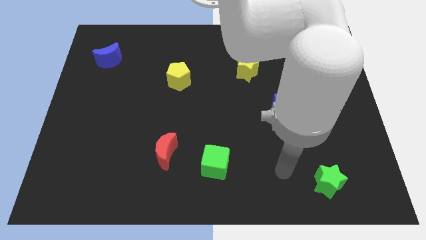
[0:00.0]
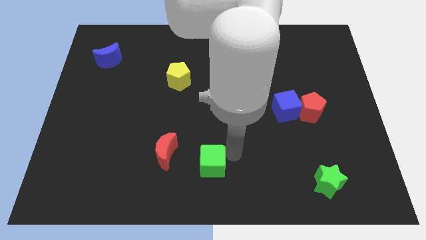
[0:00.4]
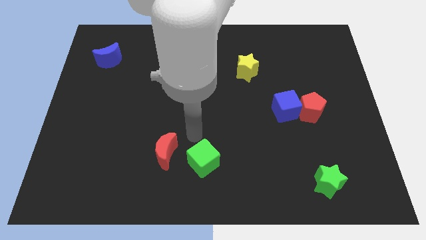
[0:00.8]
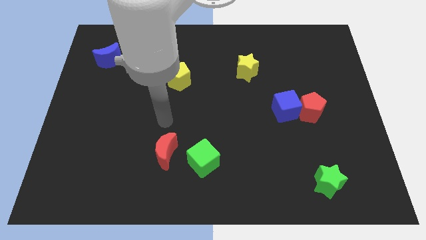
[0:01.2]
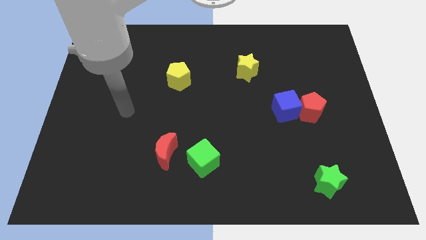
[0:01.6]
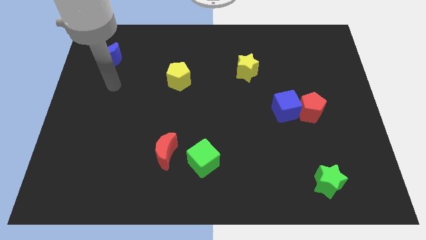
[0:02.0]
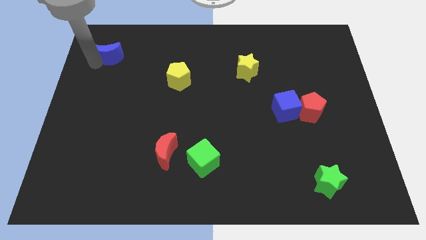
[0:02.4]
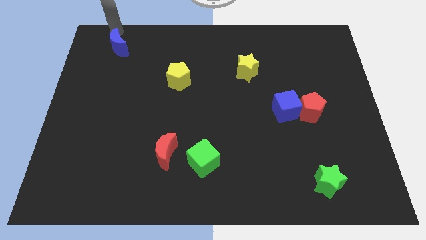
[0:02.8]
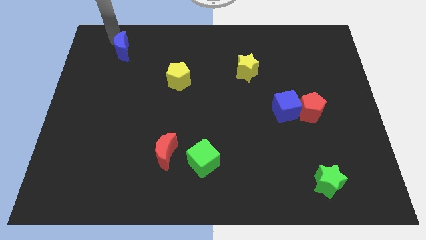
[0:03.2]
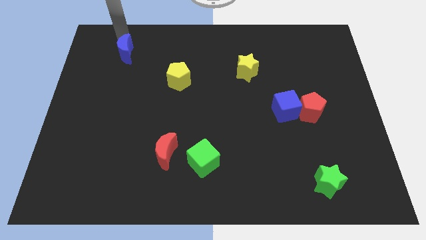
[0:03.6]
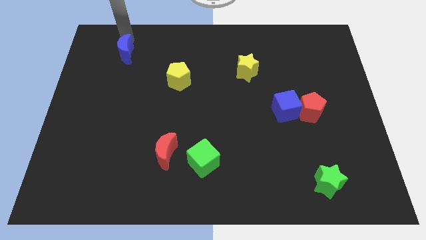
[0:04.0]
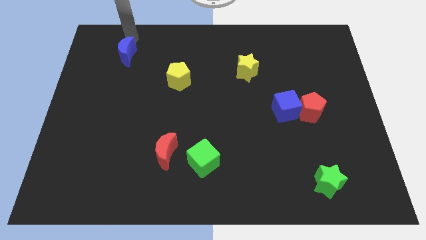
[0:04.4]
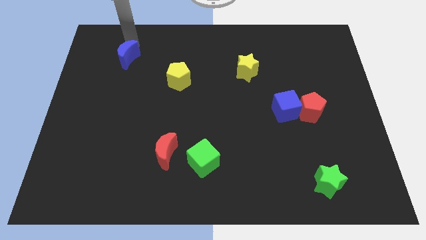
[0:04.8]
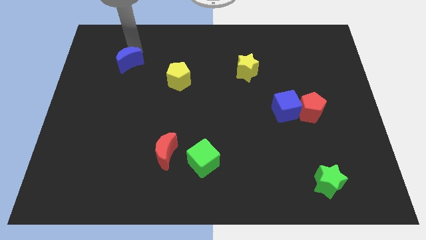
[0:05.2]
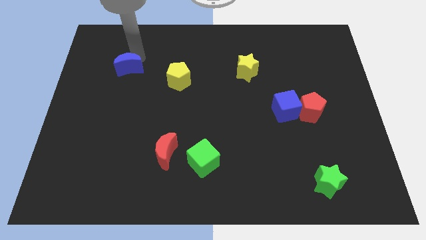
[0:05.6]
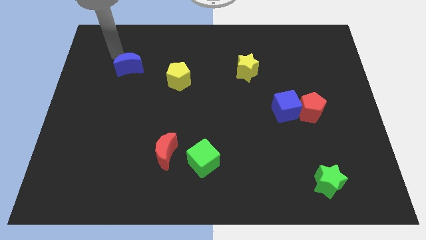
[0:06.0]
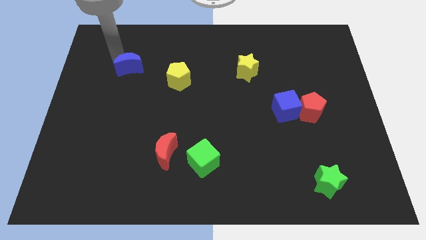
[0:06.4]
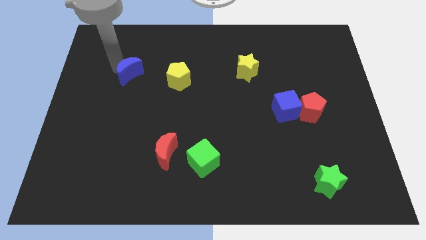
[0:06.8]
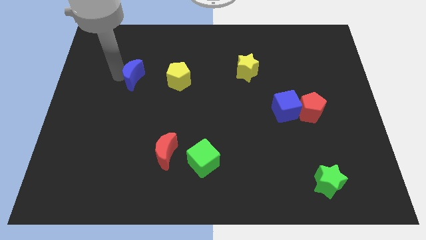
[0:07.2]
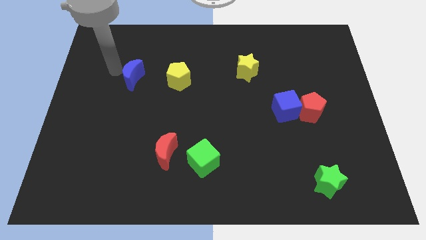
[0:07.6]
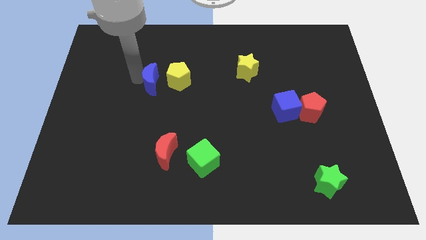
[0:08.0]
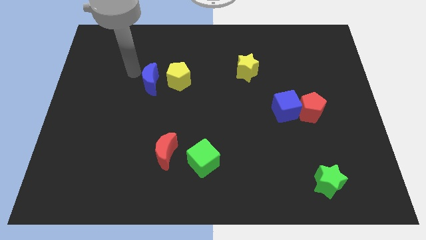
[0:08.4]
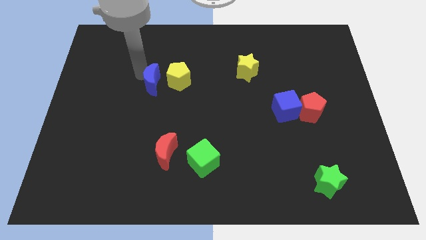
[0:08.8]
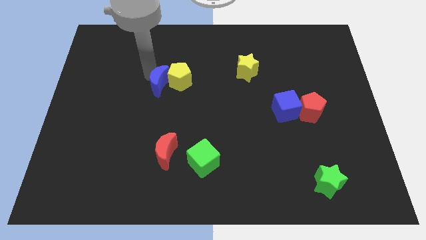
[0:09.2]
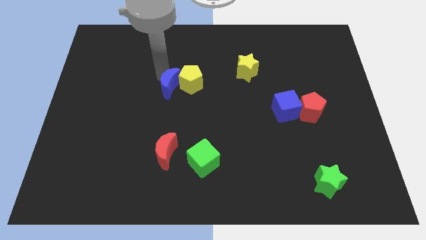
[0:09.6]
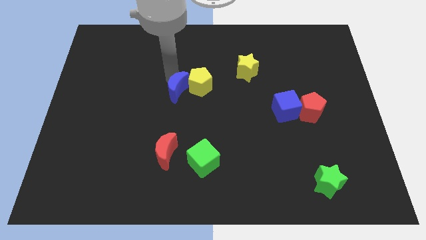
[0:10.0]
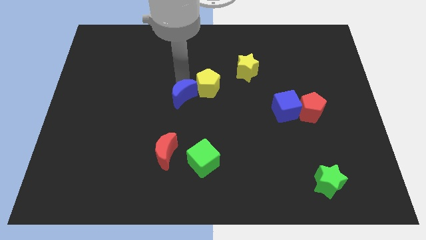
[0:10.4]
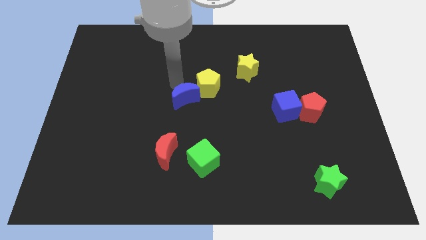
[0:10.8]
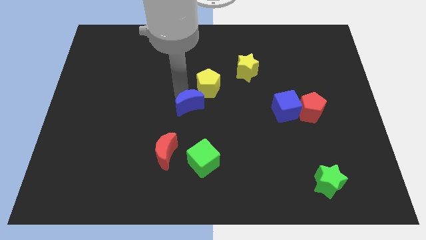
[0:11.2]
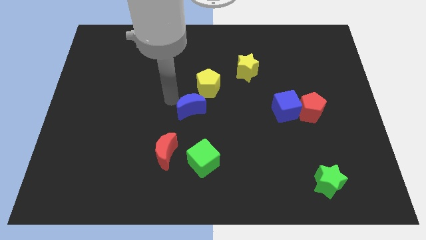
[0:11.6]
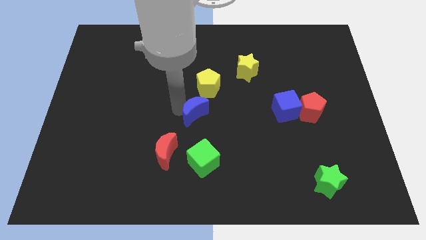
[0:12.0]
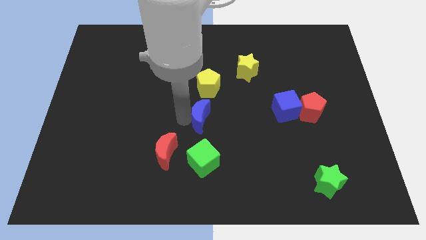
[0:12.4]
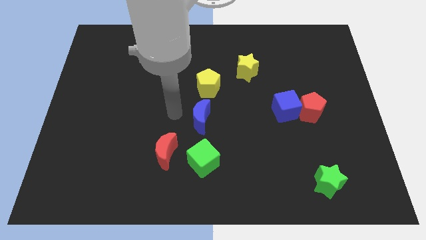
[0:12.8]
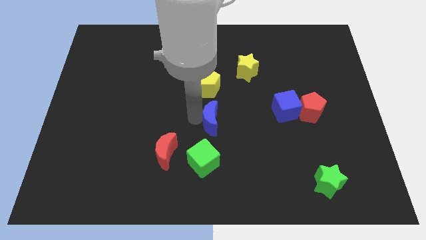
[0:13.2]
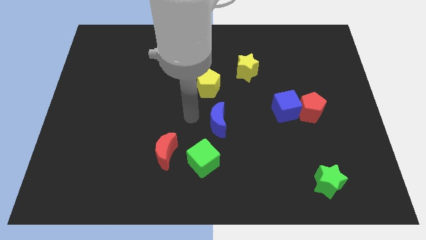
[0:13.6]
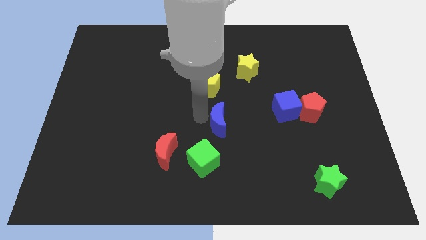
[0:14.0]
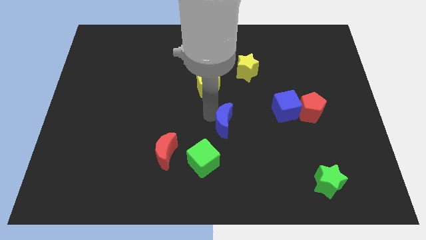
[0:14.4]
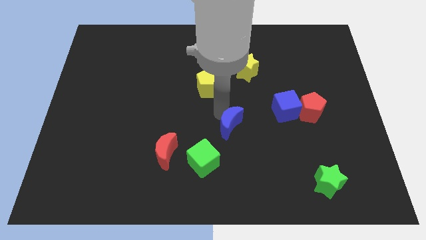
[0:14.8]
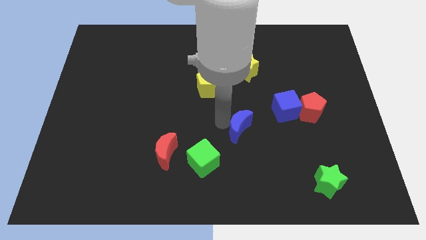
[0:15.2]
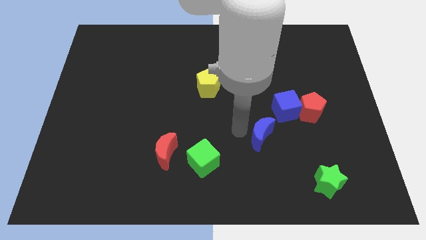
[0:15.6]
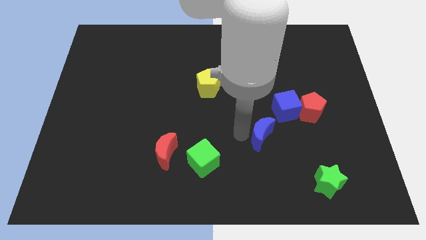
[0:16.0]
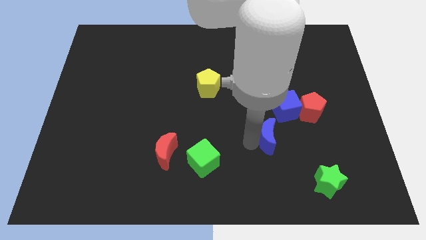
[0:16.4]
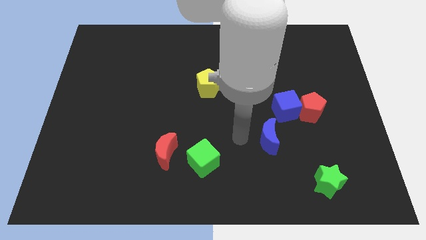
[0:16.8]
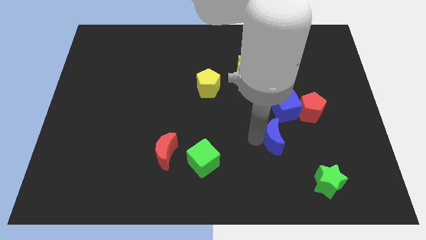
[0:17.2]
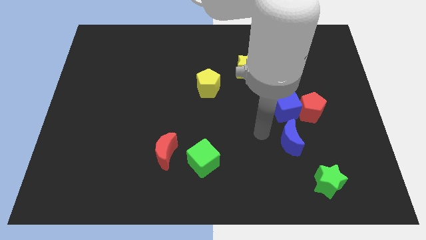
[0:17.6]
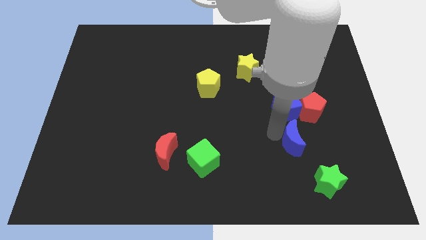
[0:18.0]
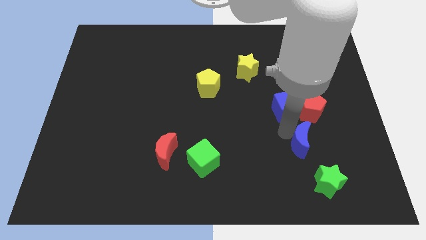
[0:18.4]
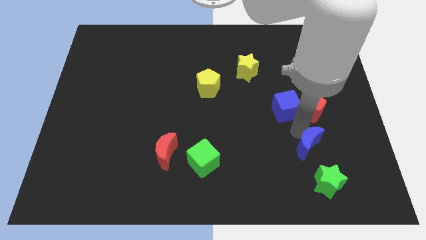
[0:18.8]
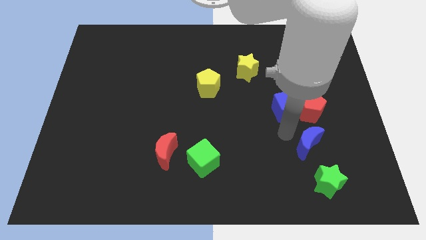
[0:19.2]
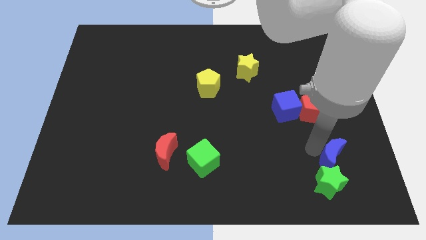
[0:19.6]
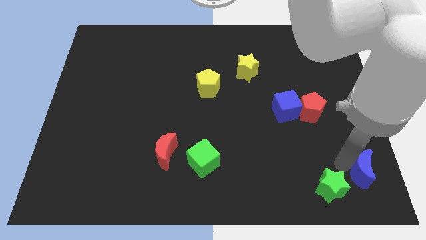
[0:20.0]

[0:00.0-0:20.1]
push the blue moon to the lower right corner

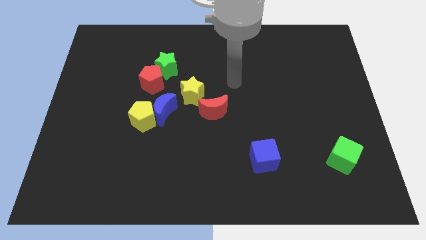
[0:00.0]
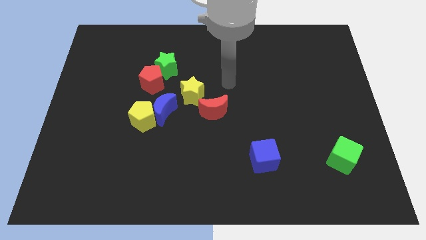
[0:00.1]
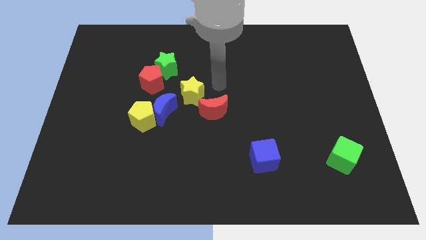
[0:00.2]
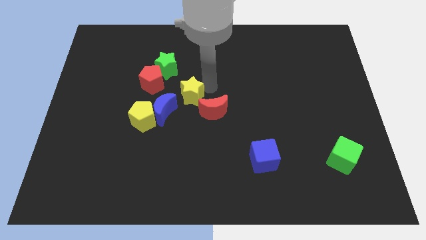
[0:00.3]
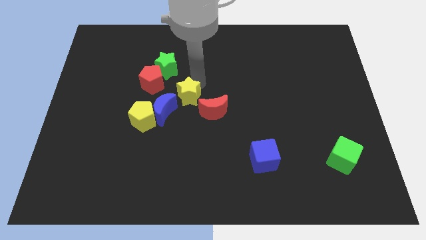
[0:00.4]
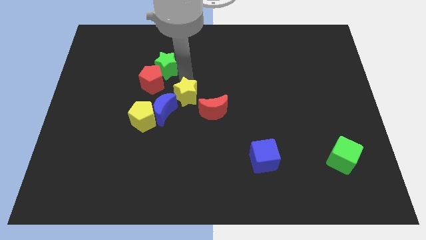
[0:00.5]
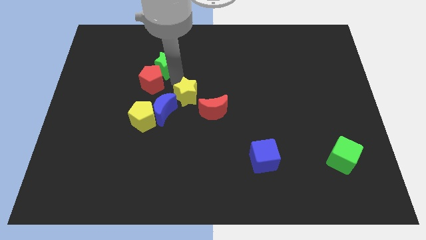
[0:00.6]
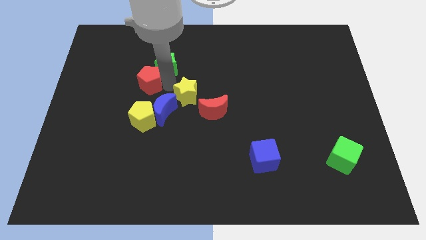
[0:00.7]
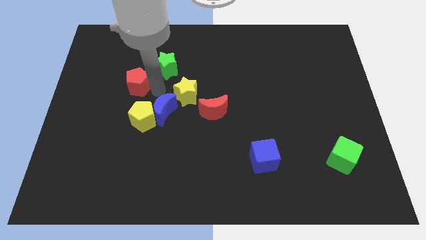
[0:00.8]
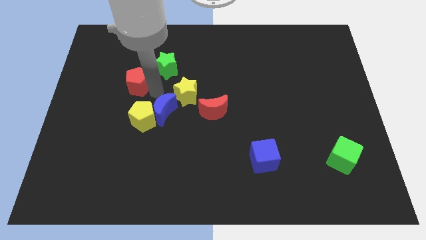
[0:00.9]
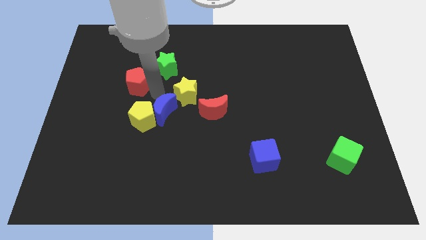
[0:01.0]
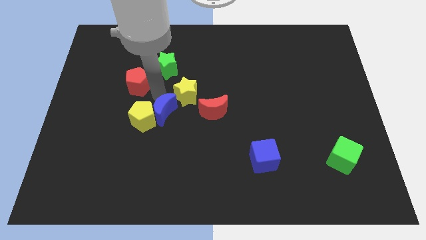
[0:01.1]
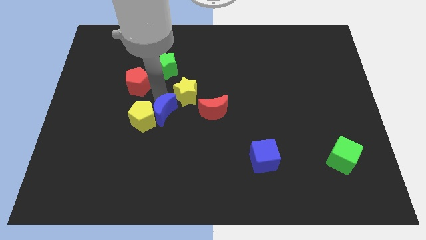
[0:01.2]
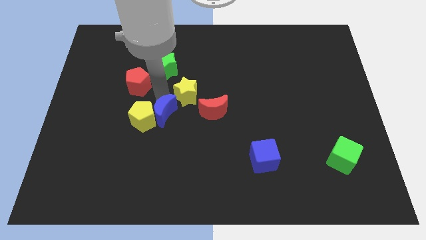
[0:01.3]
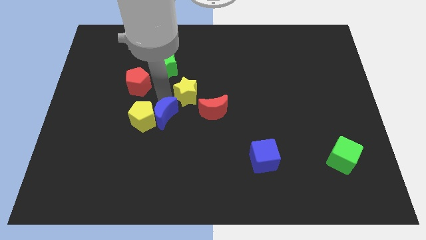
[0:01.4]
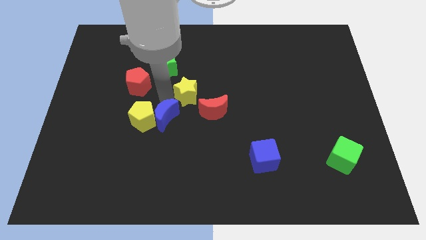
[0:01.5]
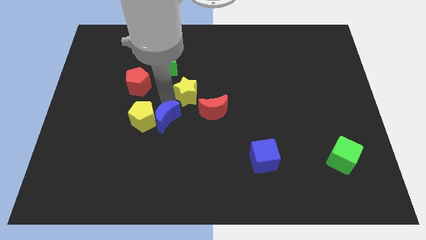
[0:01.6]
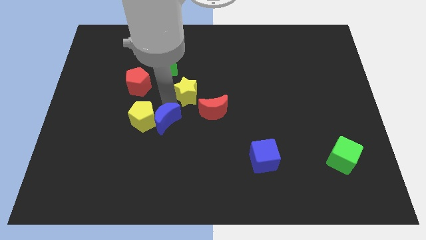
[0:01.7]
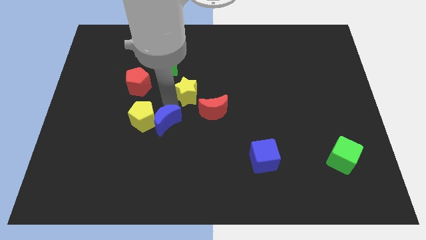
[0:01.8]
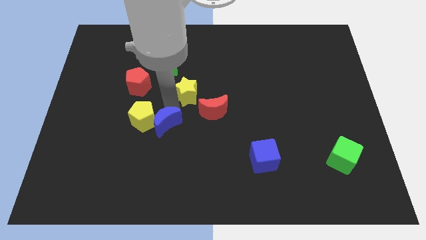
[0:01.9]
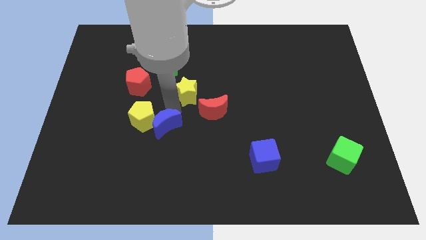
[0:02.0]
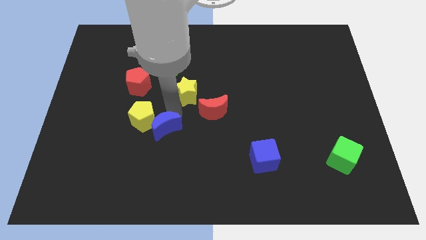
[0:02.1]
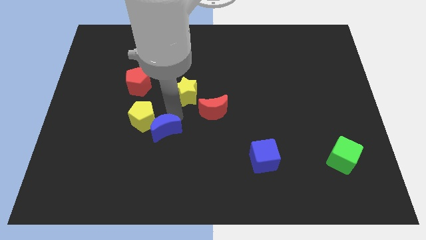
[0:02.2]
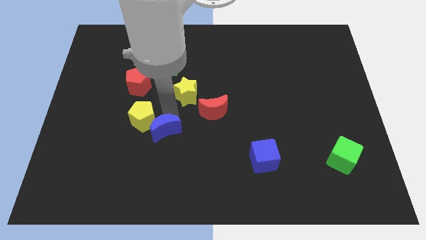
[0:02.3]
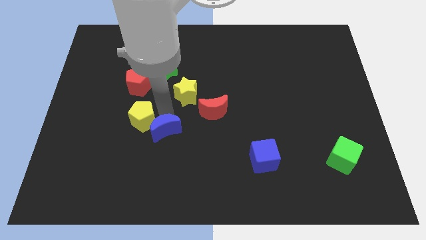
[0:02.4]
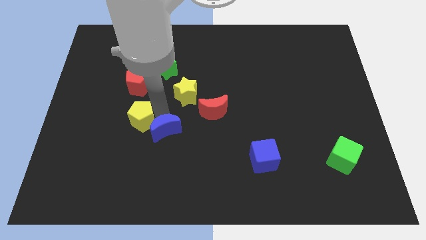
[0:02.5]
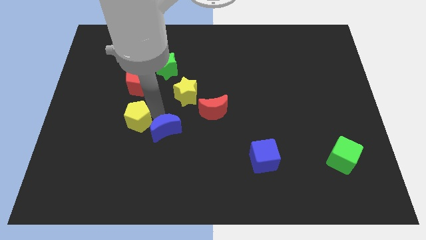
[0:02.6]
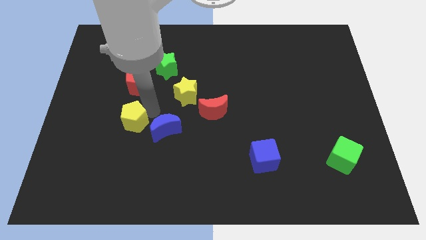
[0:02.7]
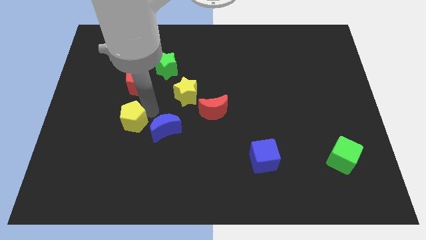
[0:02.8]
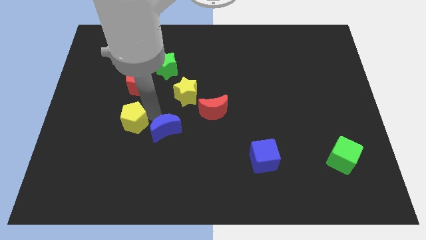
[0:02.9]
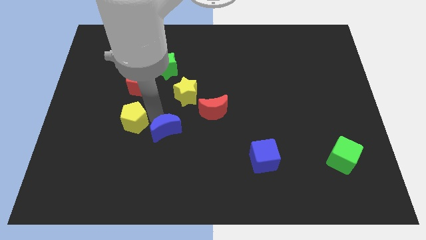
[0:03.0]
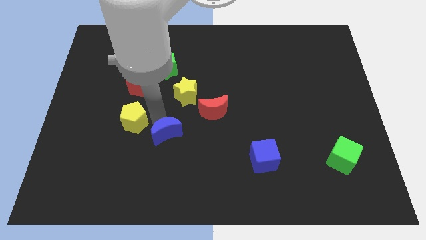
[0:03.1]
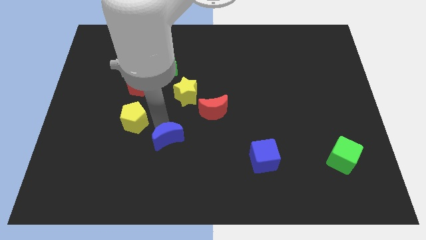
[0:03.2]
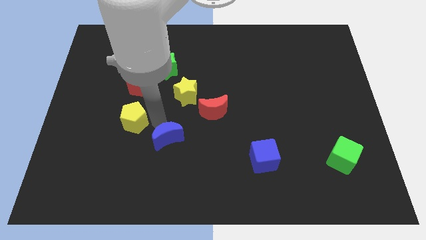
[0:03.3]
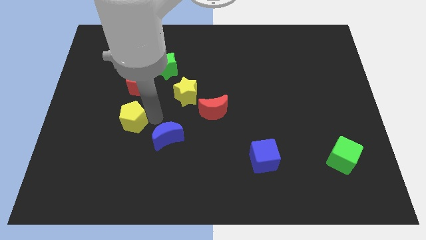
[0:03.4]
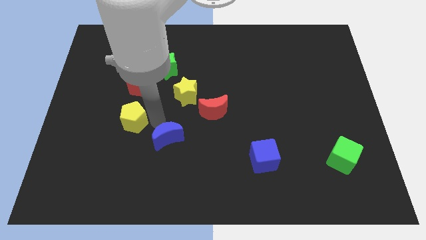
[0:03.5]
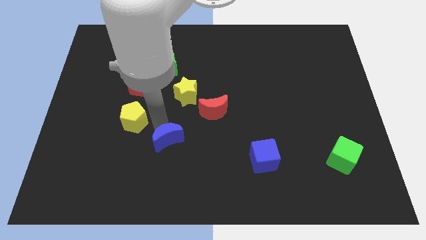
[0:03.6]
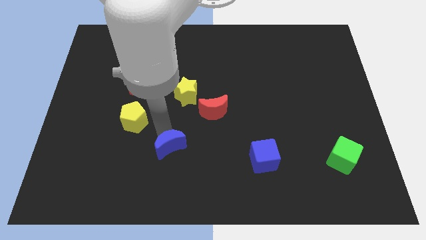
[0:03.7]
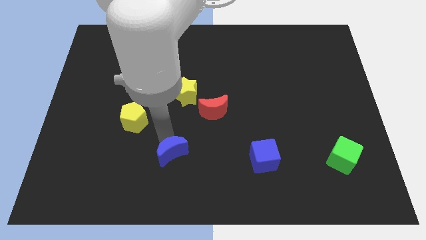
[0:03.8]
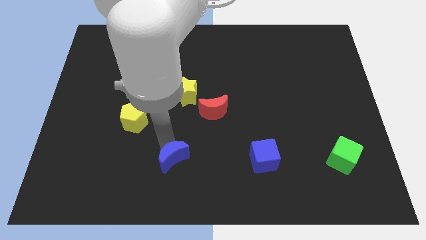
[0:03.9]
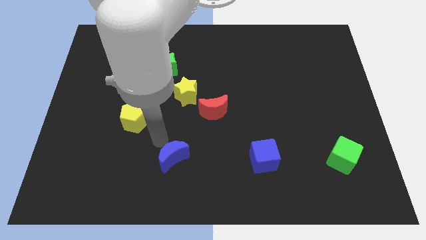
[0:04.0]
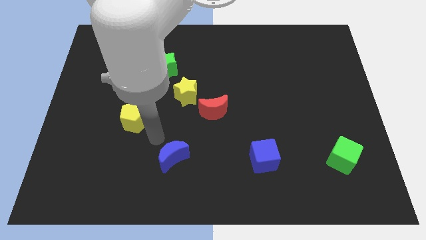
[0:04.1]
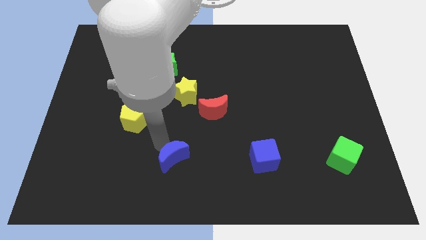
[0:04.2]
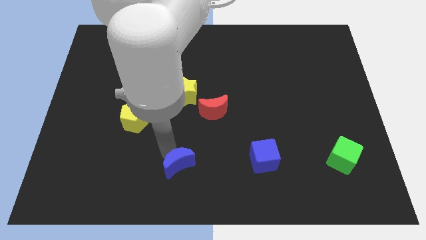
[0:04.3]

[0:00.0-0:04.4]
push the blue moon to the bottom
